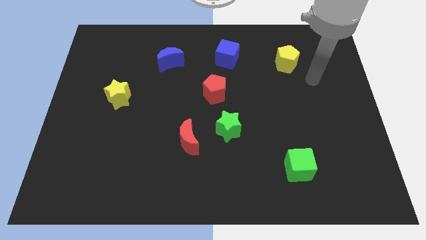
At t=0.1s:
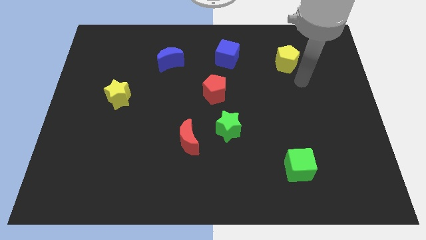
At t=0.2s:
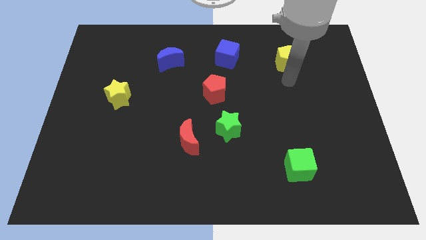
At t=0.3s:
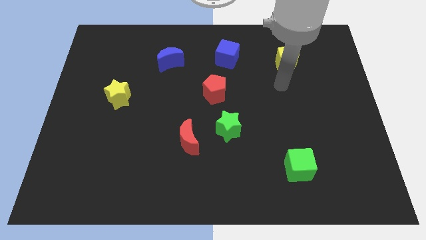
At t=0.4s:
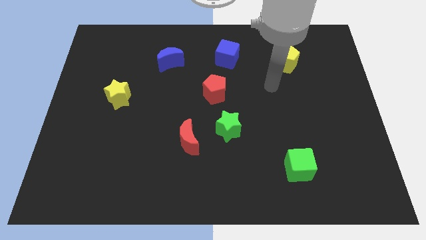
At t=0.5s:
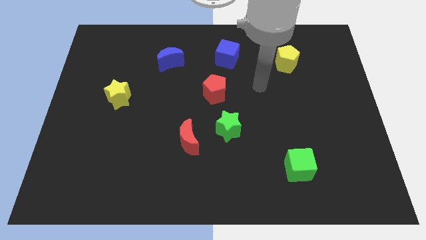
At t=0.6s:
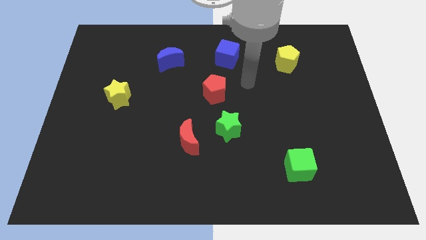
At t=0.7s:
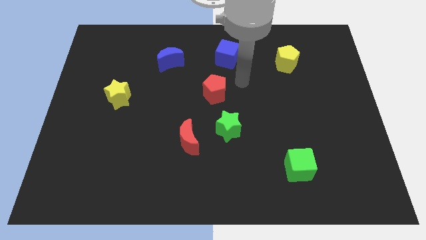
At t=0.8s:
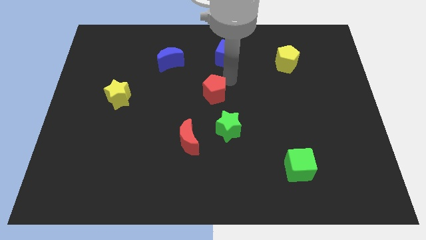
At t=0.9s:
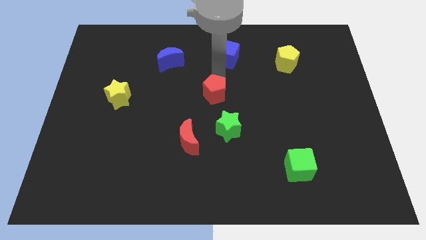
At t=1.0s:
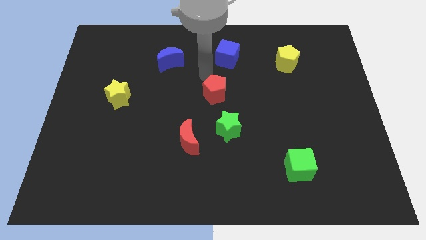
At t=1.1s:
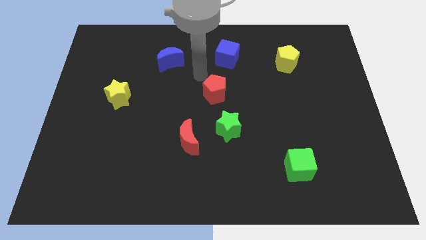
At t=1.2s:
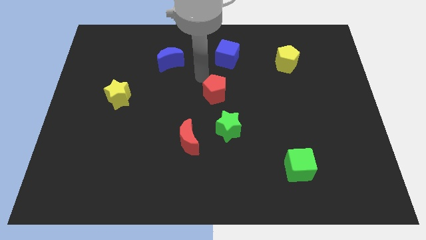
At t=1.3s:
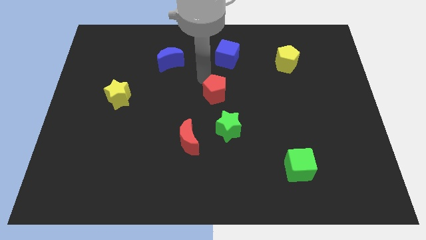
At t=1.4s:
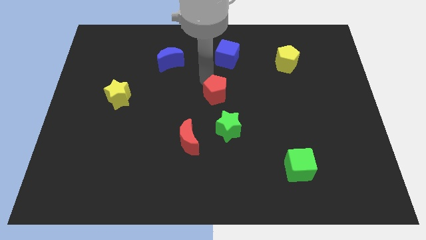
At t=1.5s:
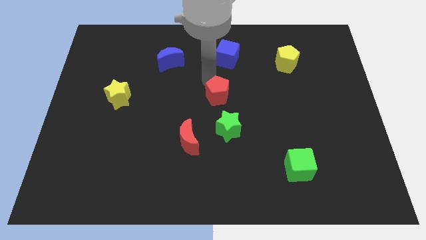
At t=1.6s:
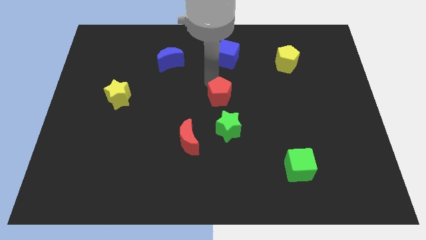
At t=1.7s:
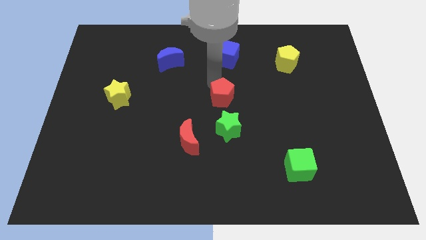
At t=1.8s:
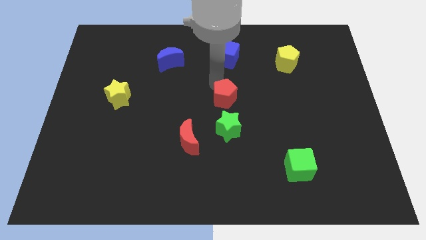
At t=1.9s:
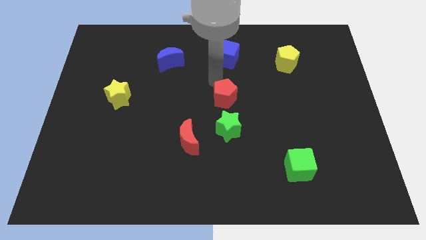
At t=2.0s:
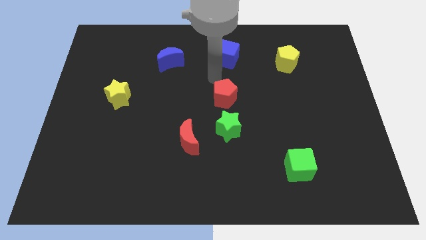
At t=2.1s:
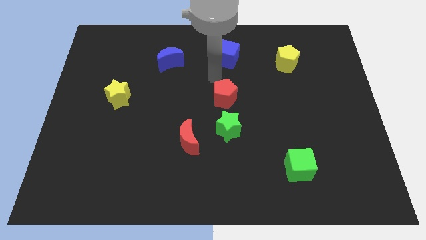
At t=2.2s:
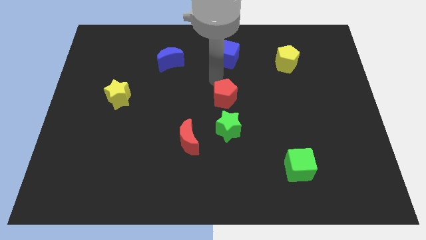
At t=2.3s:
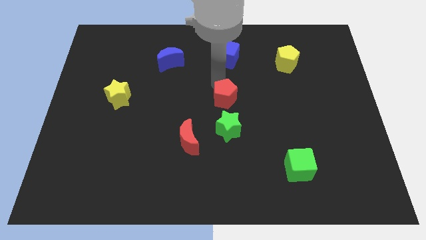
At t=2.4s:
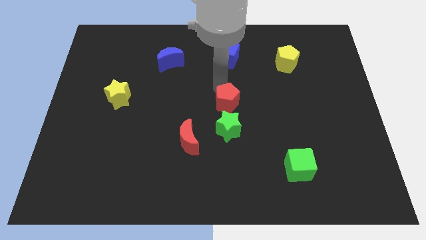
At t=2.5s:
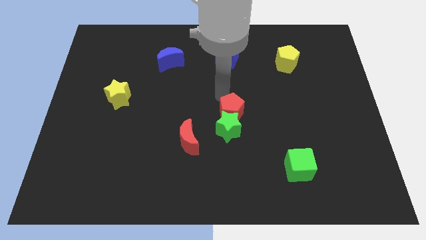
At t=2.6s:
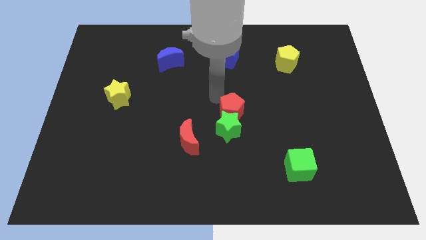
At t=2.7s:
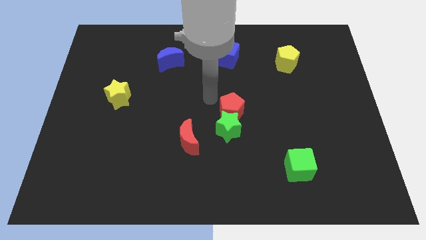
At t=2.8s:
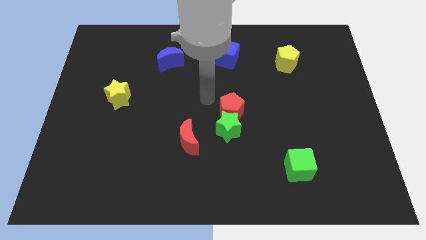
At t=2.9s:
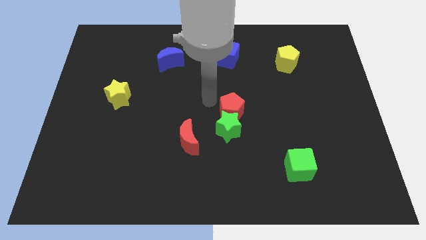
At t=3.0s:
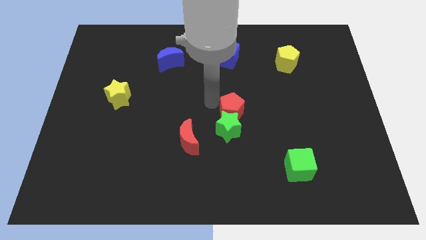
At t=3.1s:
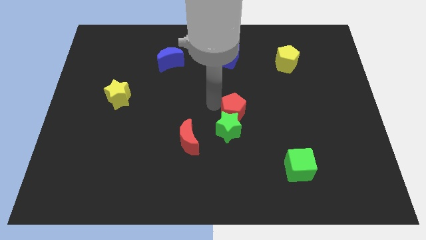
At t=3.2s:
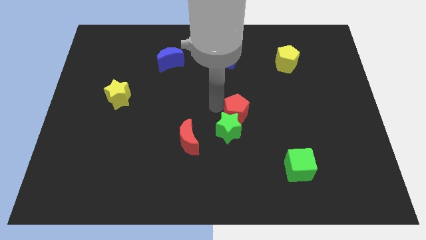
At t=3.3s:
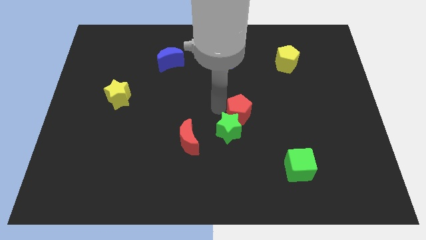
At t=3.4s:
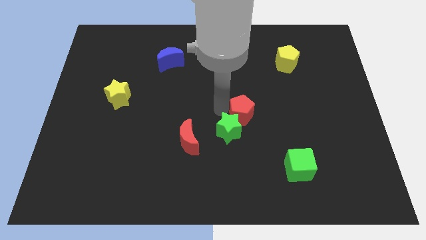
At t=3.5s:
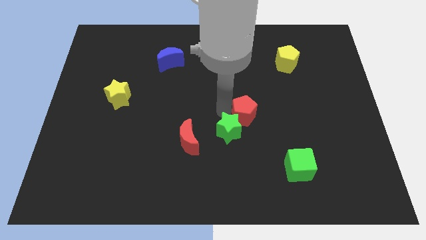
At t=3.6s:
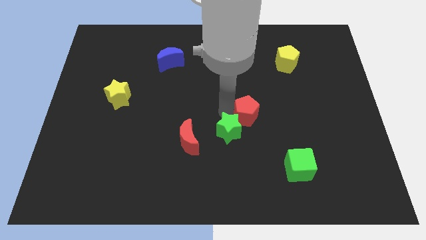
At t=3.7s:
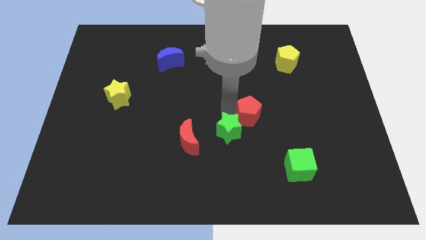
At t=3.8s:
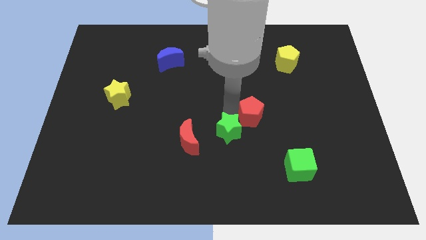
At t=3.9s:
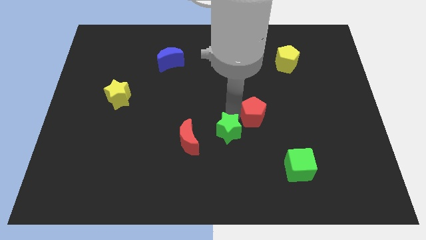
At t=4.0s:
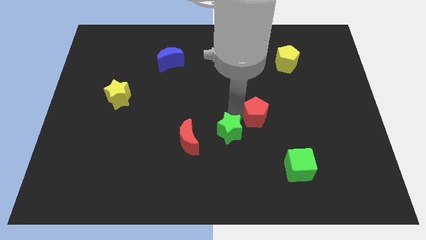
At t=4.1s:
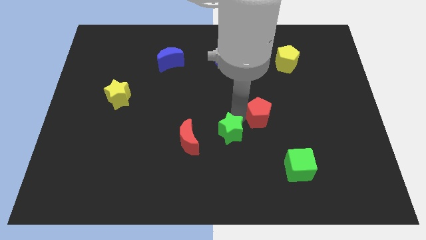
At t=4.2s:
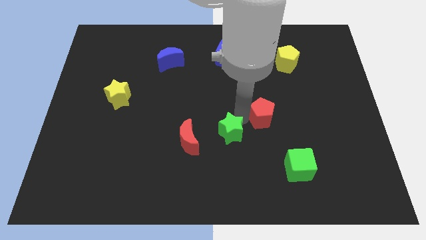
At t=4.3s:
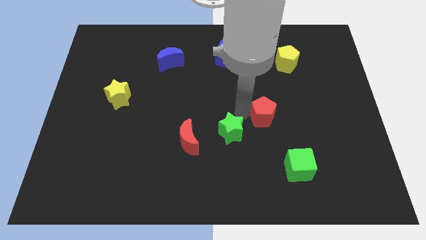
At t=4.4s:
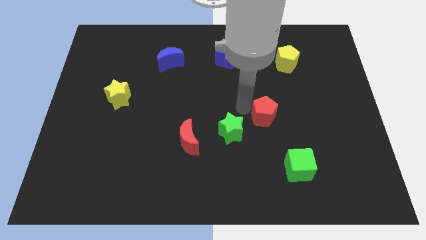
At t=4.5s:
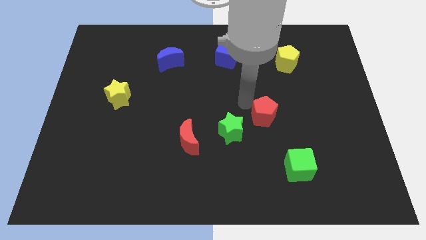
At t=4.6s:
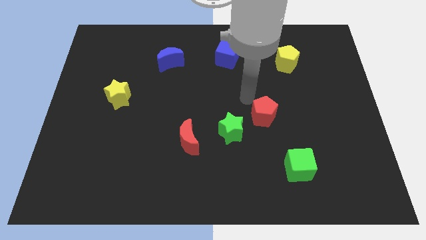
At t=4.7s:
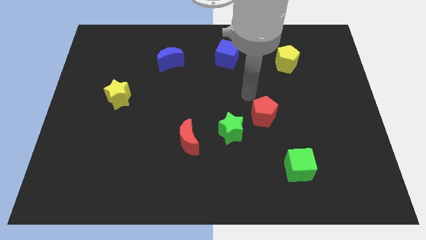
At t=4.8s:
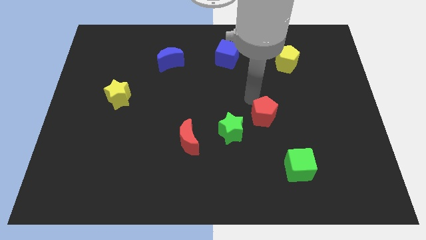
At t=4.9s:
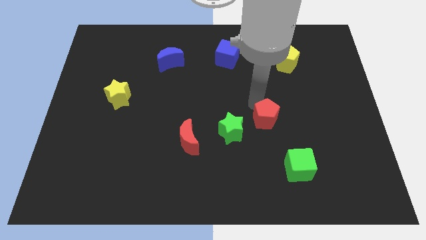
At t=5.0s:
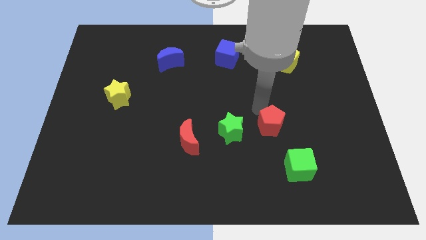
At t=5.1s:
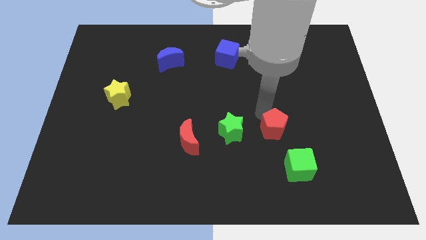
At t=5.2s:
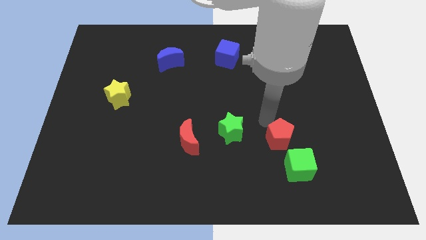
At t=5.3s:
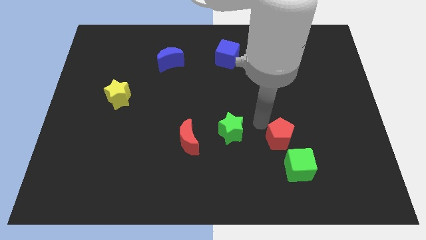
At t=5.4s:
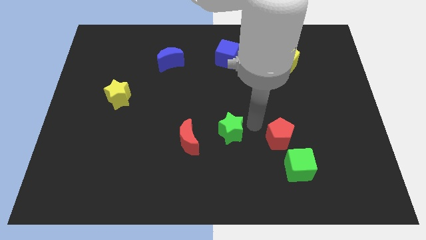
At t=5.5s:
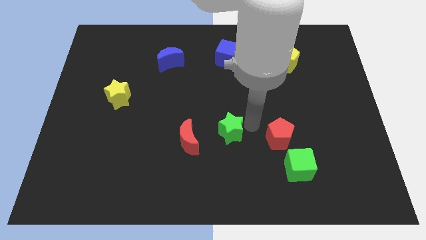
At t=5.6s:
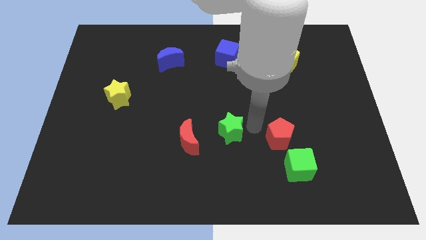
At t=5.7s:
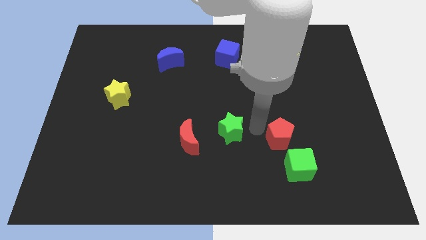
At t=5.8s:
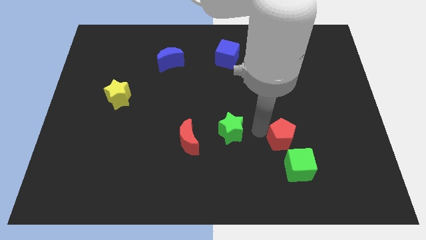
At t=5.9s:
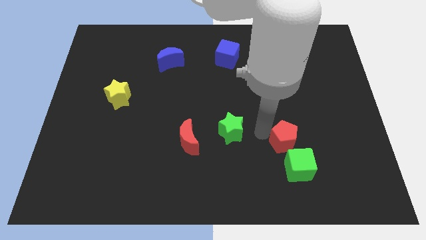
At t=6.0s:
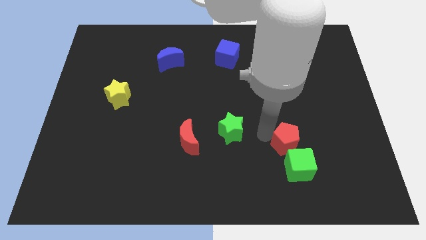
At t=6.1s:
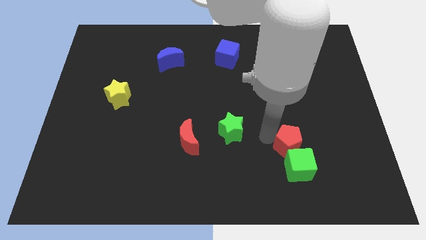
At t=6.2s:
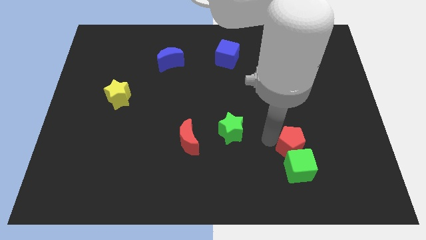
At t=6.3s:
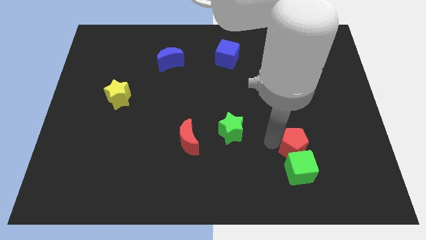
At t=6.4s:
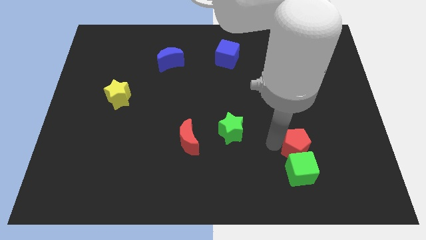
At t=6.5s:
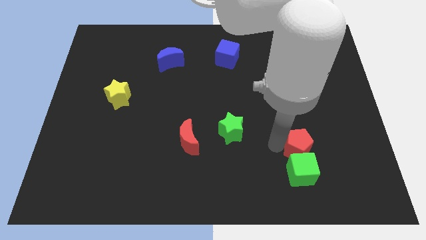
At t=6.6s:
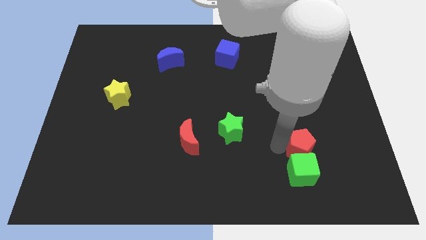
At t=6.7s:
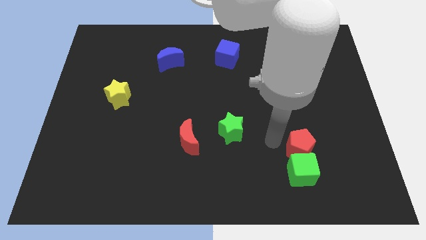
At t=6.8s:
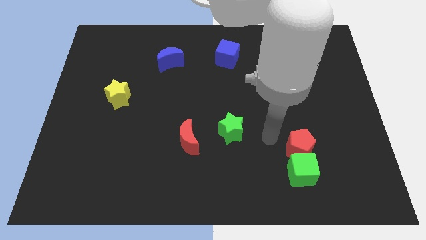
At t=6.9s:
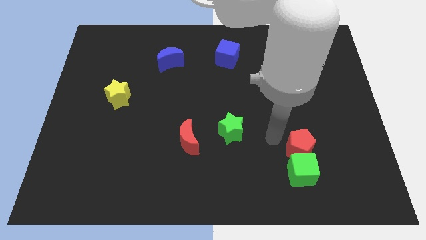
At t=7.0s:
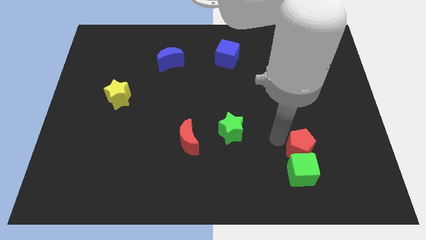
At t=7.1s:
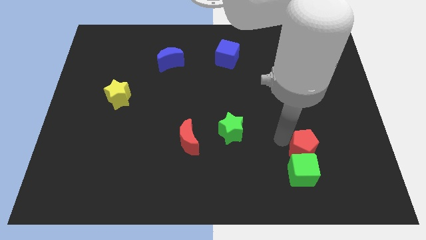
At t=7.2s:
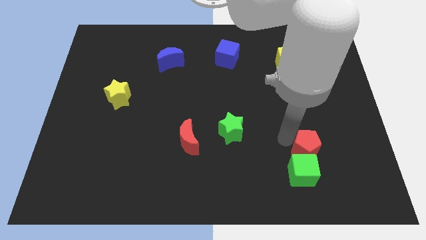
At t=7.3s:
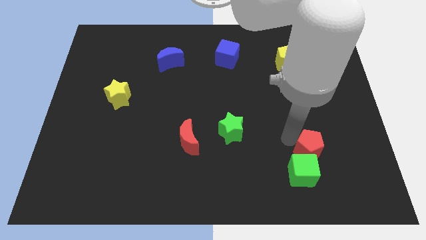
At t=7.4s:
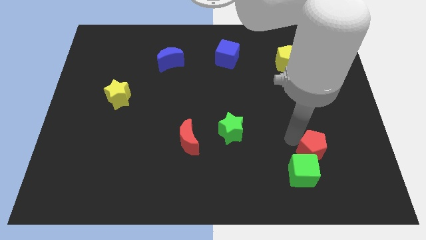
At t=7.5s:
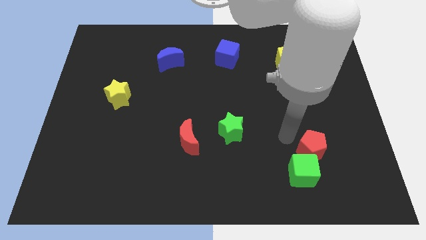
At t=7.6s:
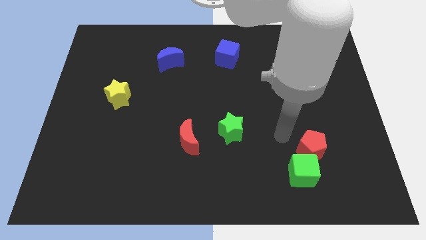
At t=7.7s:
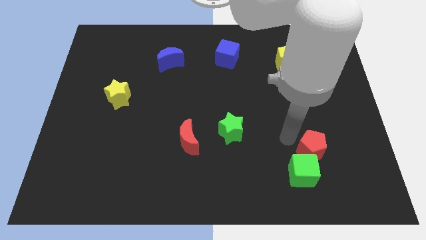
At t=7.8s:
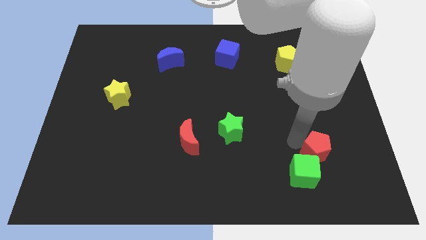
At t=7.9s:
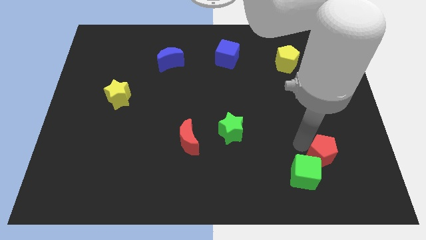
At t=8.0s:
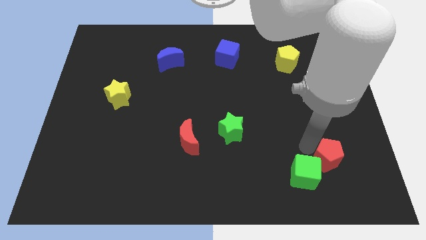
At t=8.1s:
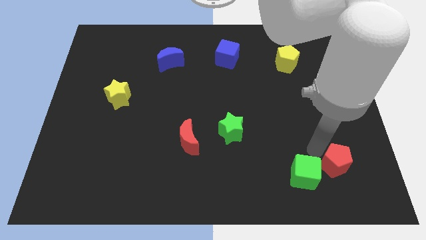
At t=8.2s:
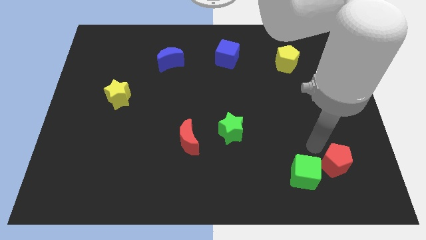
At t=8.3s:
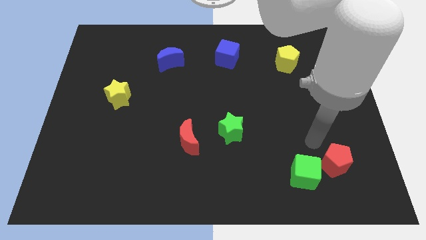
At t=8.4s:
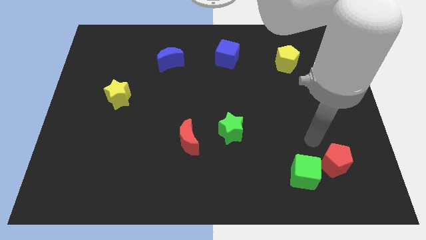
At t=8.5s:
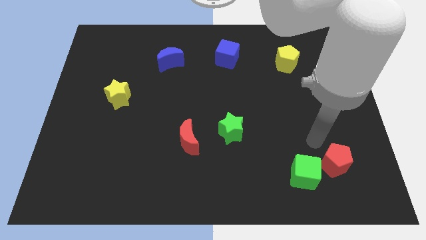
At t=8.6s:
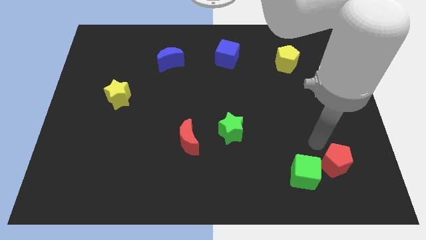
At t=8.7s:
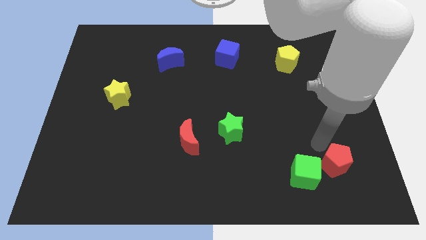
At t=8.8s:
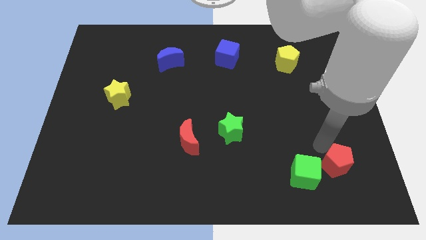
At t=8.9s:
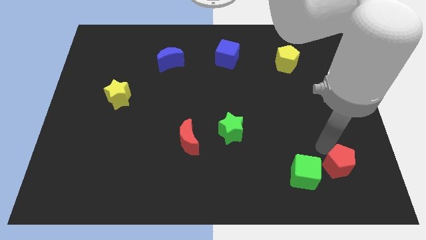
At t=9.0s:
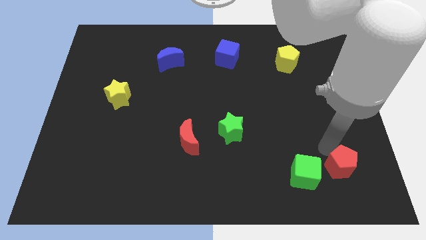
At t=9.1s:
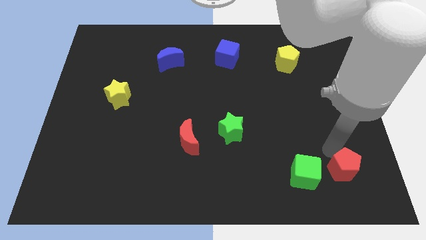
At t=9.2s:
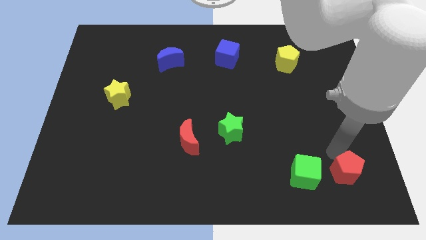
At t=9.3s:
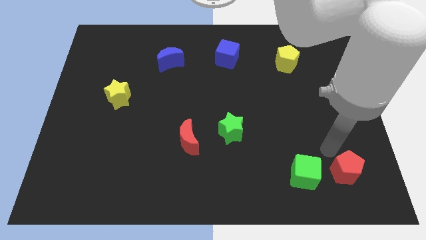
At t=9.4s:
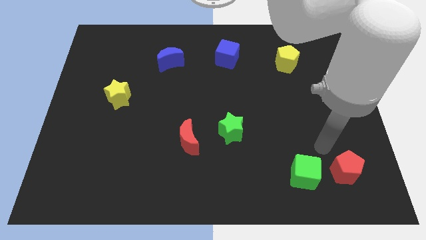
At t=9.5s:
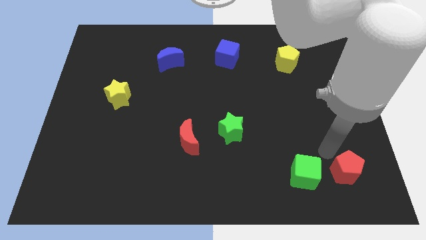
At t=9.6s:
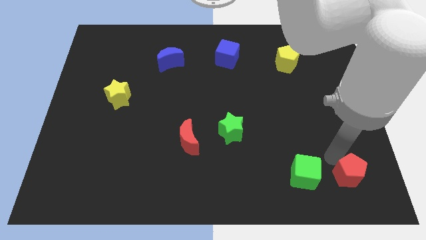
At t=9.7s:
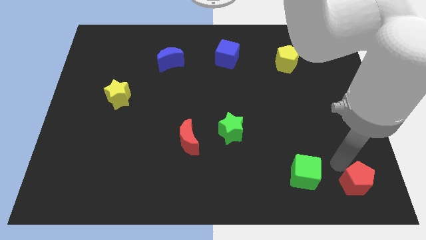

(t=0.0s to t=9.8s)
move the red pentagon to the bottom right corner
